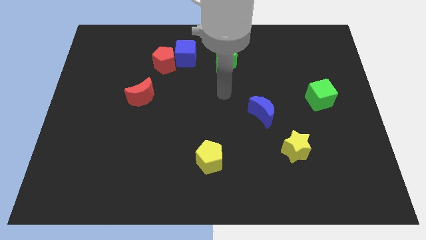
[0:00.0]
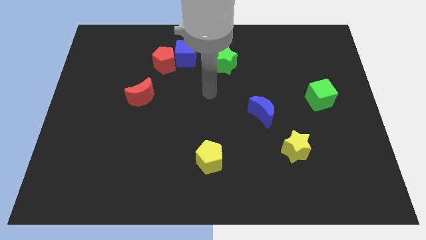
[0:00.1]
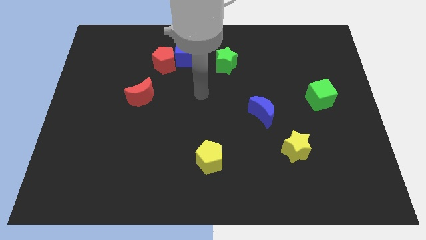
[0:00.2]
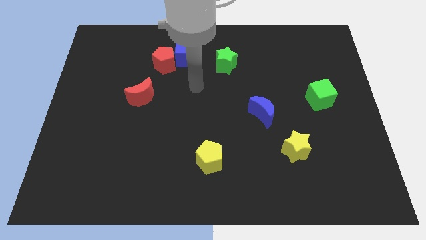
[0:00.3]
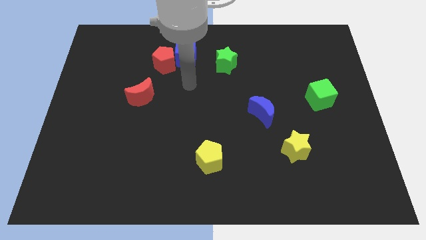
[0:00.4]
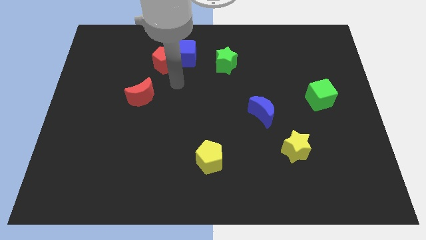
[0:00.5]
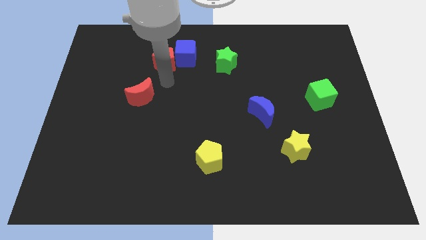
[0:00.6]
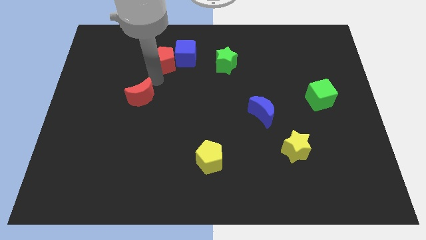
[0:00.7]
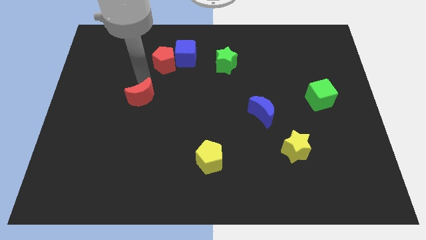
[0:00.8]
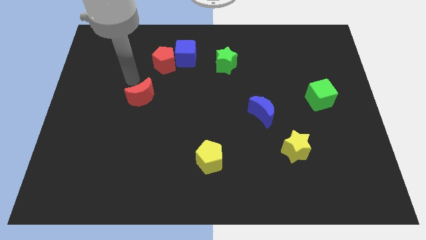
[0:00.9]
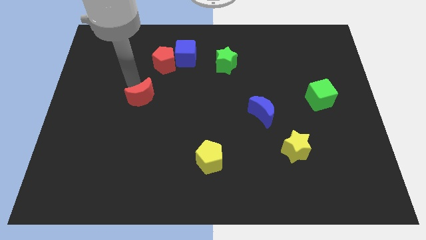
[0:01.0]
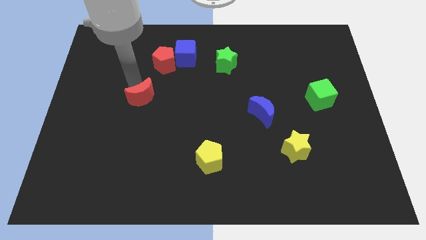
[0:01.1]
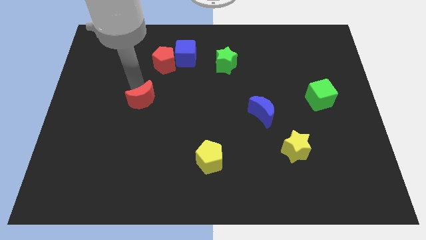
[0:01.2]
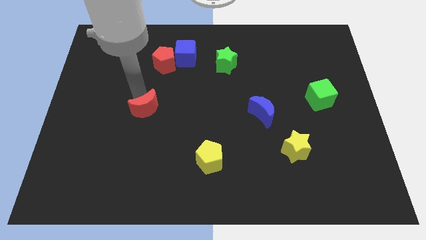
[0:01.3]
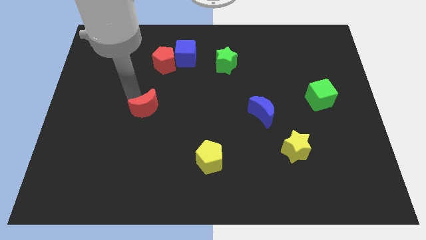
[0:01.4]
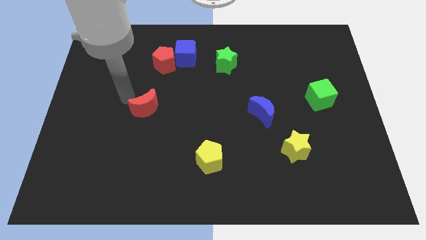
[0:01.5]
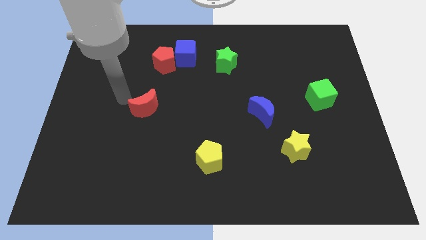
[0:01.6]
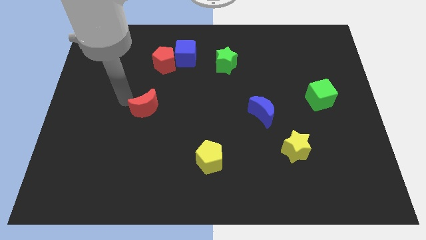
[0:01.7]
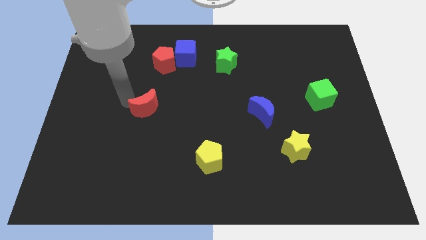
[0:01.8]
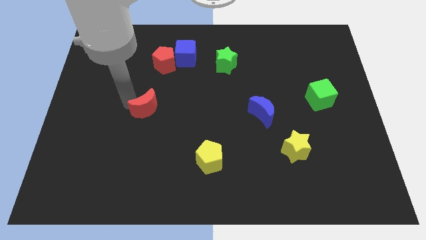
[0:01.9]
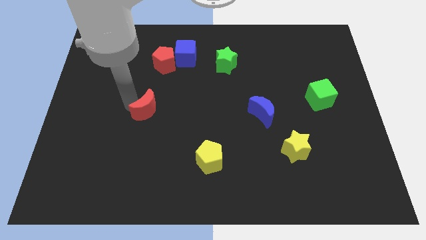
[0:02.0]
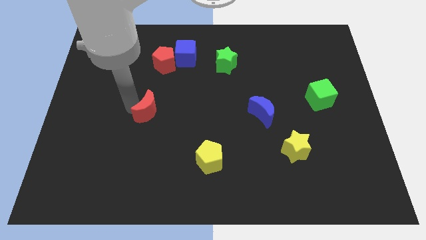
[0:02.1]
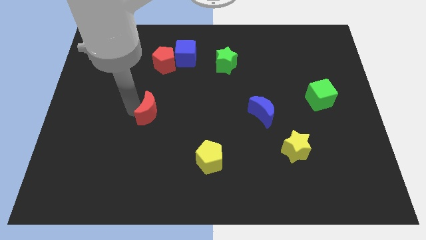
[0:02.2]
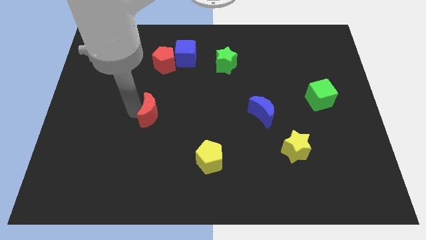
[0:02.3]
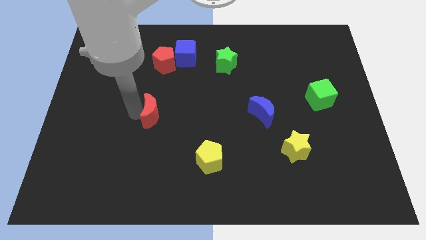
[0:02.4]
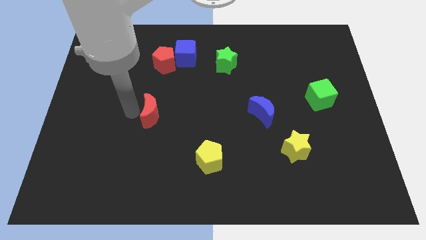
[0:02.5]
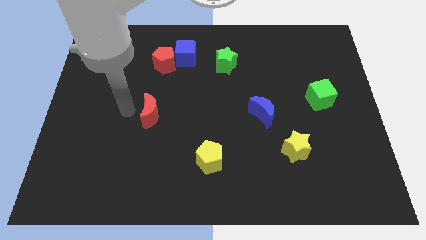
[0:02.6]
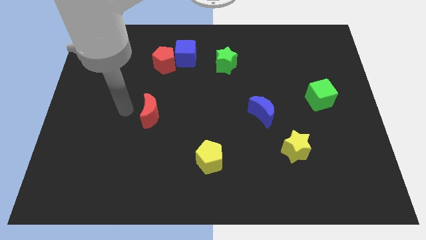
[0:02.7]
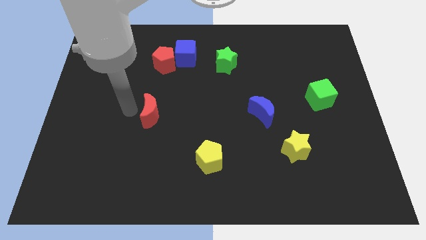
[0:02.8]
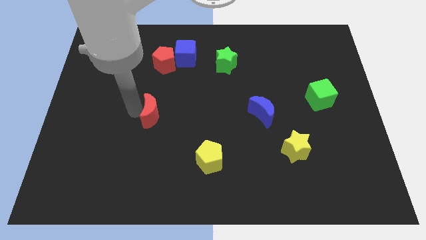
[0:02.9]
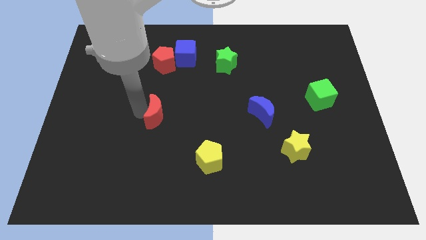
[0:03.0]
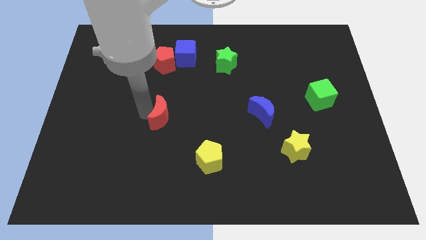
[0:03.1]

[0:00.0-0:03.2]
slightly slide the red moon down and then to the right

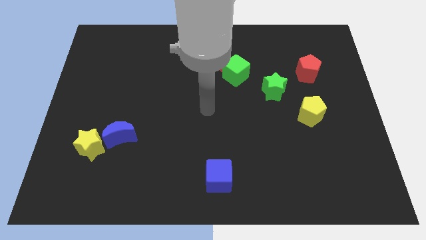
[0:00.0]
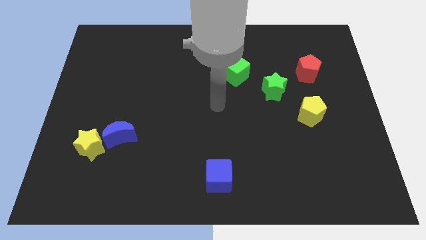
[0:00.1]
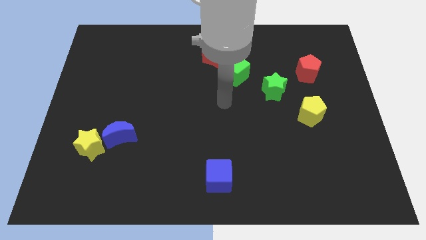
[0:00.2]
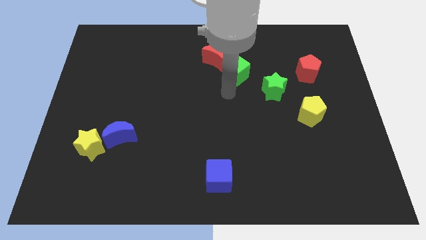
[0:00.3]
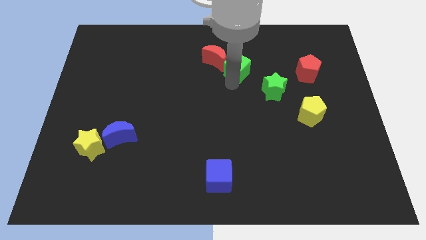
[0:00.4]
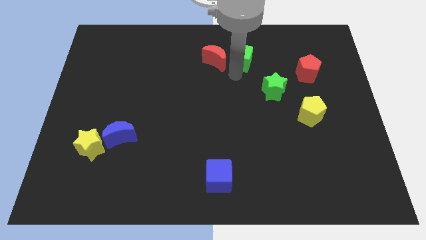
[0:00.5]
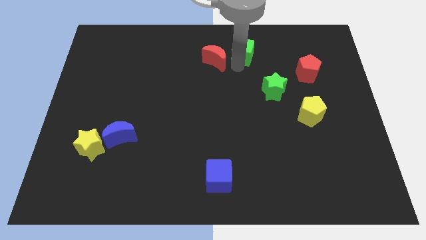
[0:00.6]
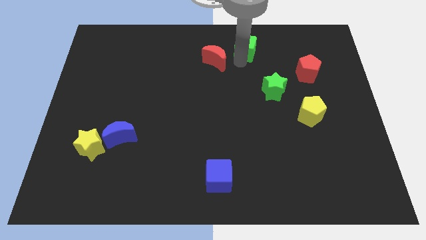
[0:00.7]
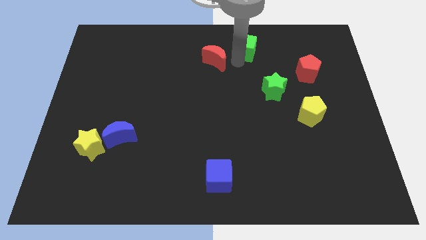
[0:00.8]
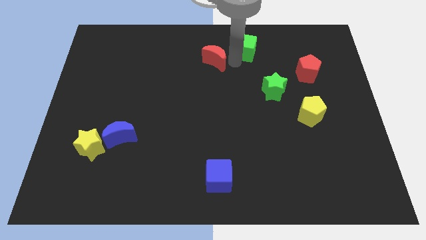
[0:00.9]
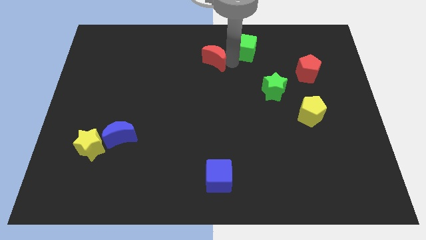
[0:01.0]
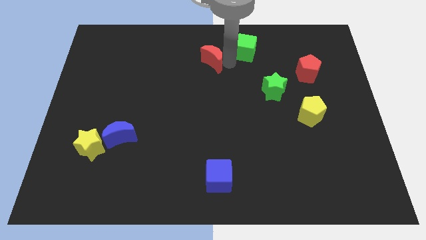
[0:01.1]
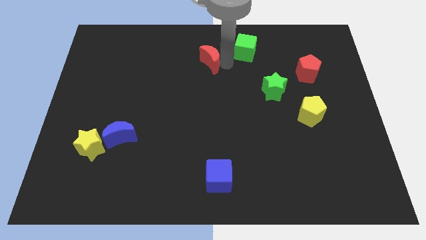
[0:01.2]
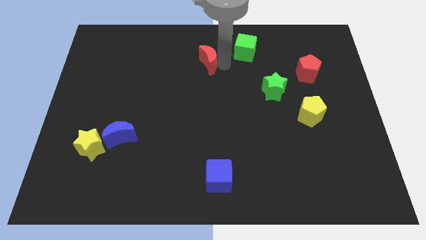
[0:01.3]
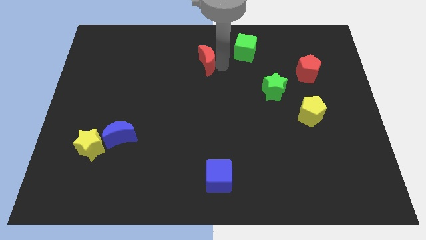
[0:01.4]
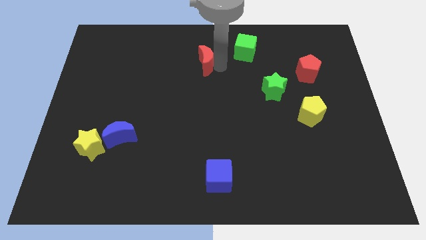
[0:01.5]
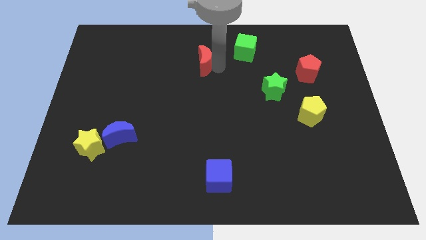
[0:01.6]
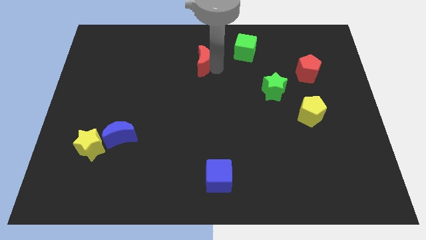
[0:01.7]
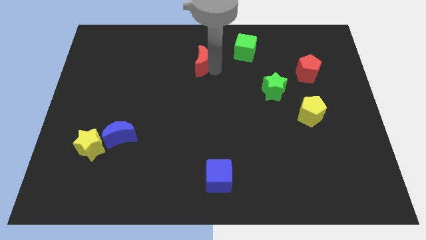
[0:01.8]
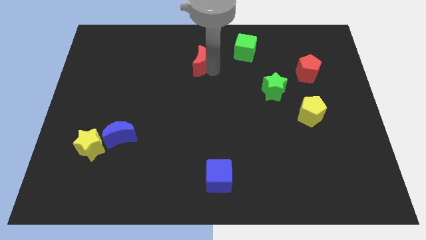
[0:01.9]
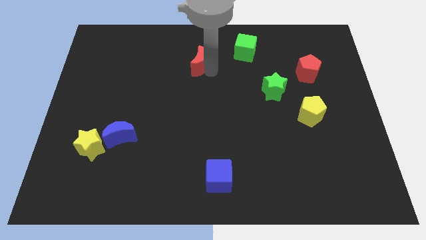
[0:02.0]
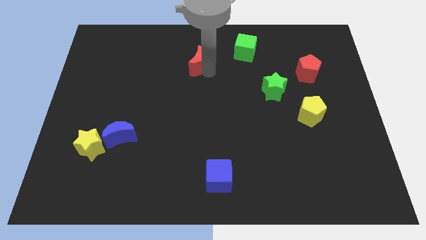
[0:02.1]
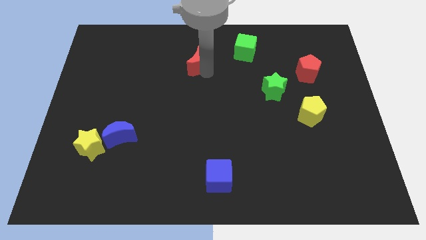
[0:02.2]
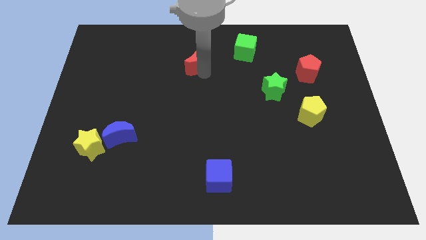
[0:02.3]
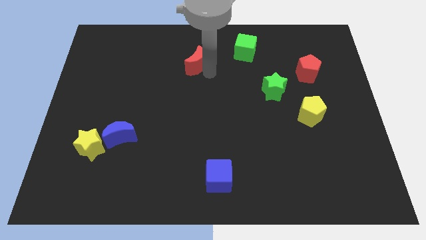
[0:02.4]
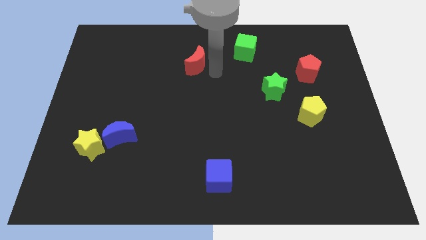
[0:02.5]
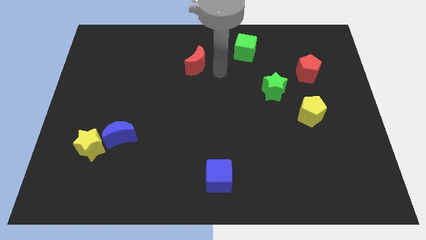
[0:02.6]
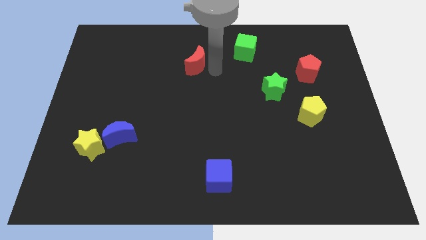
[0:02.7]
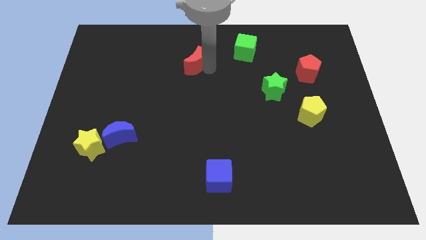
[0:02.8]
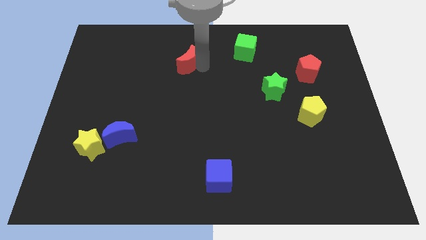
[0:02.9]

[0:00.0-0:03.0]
move the red moon a little bit to the left

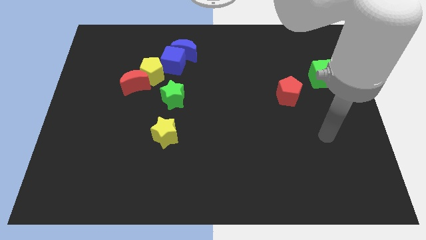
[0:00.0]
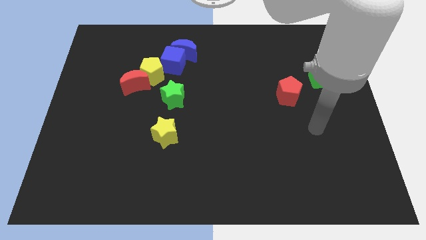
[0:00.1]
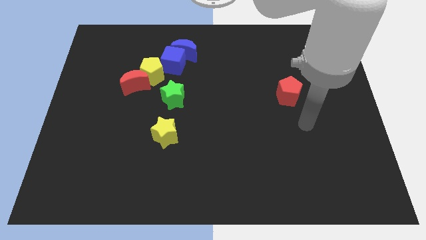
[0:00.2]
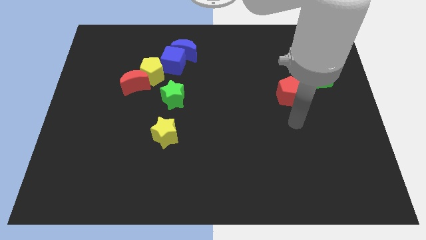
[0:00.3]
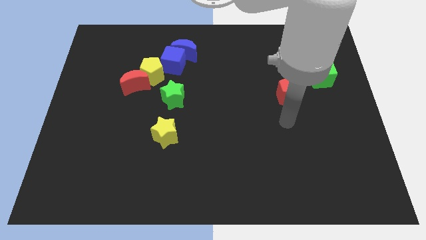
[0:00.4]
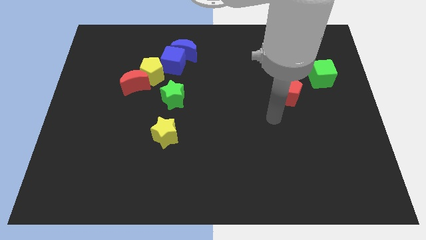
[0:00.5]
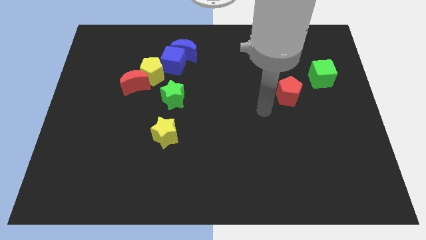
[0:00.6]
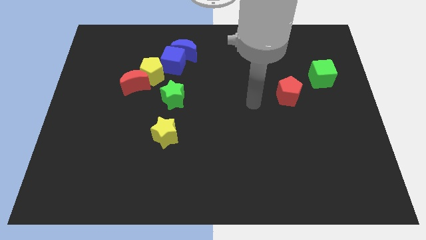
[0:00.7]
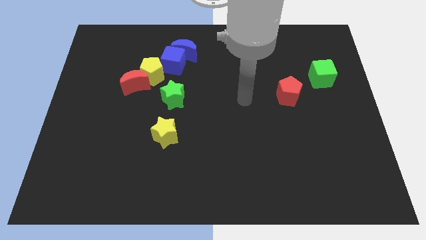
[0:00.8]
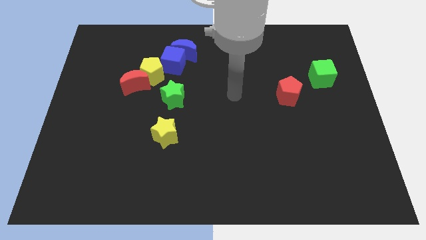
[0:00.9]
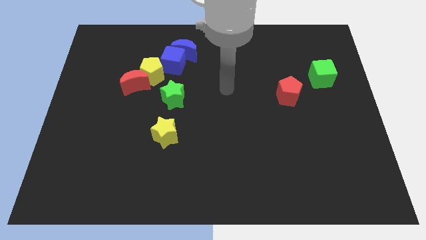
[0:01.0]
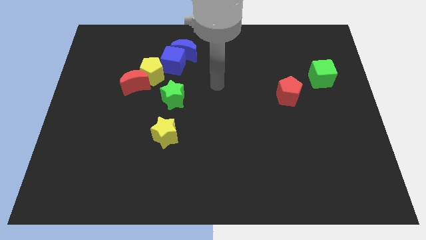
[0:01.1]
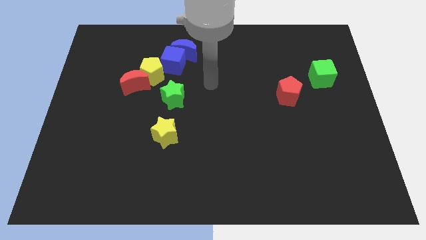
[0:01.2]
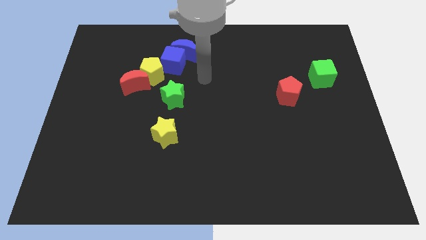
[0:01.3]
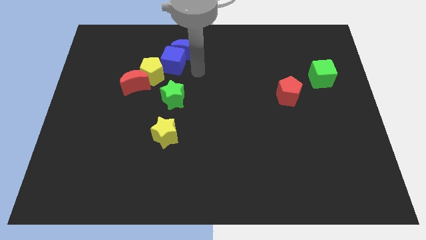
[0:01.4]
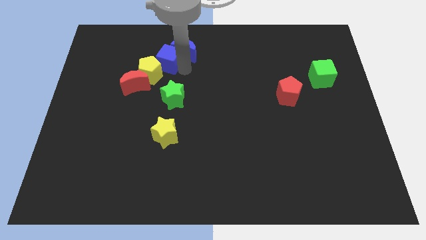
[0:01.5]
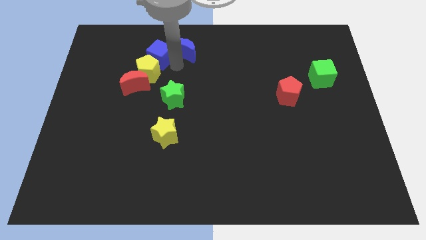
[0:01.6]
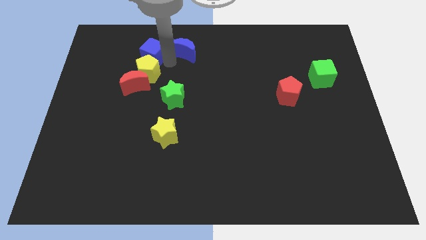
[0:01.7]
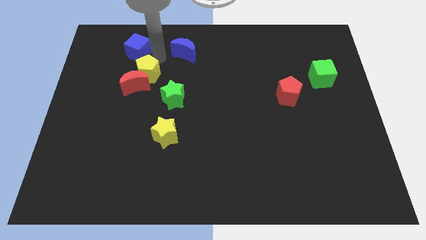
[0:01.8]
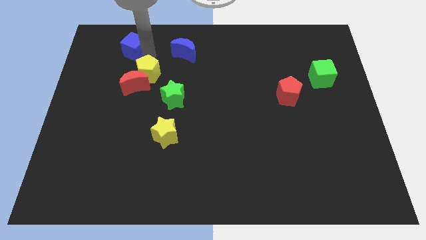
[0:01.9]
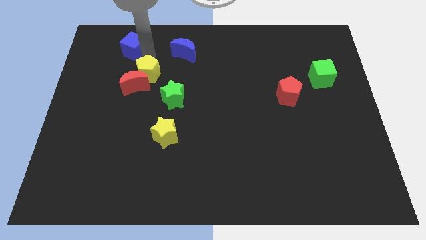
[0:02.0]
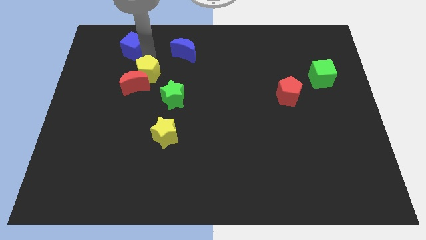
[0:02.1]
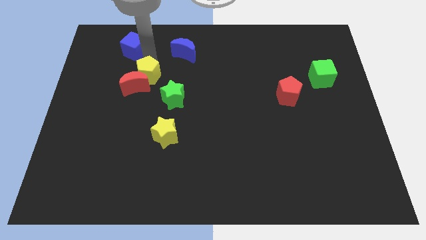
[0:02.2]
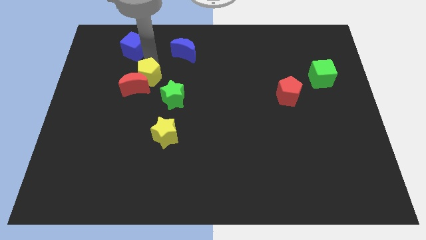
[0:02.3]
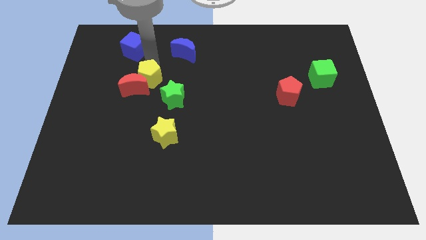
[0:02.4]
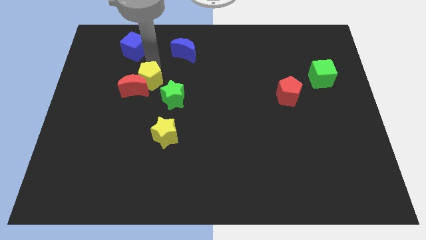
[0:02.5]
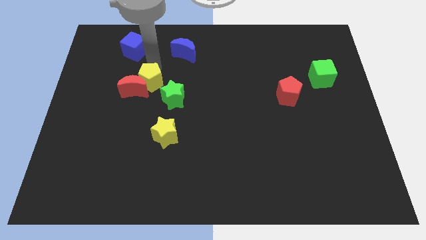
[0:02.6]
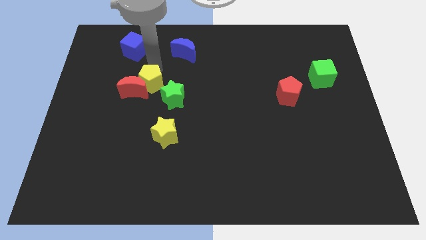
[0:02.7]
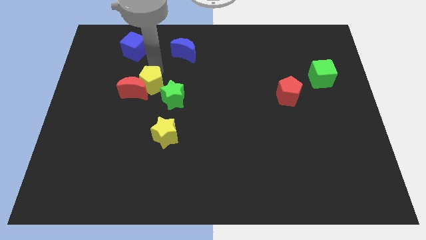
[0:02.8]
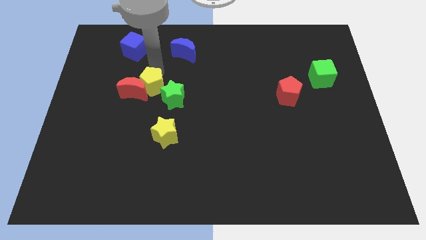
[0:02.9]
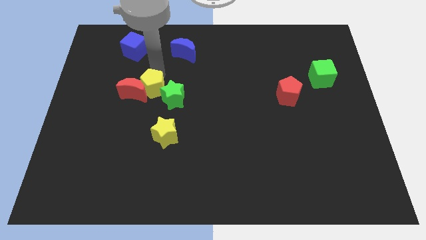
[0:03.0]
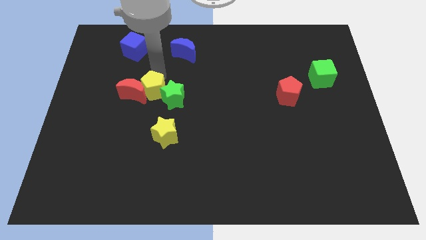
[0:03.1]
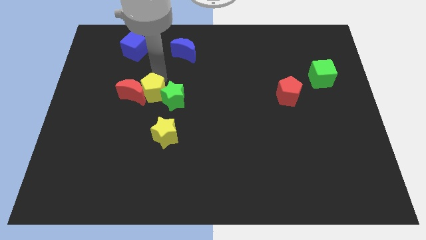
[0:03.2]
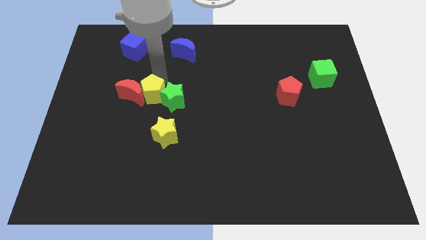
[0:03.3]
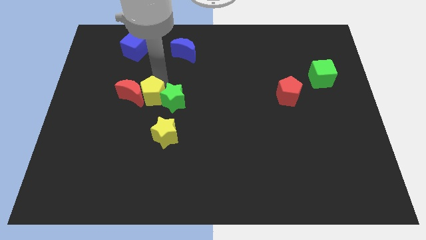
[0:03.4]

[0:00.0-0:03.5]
push the yellow pentagon downwards slightly
